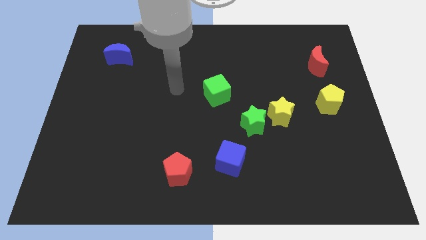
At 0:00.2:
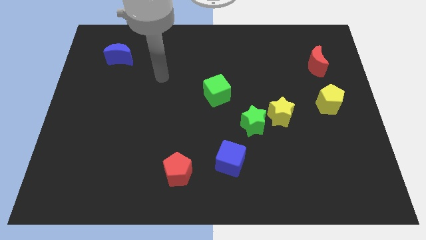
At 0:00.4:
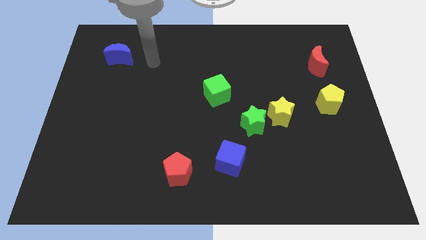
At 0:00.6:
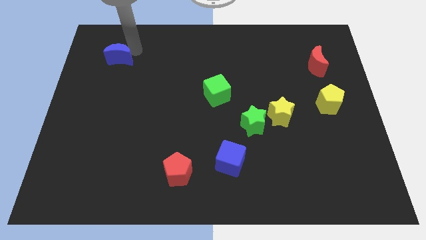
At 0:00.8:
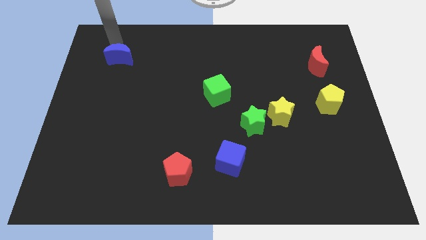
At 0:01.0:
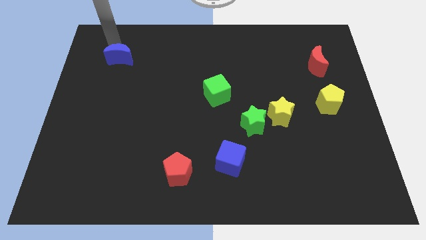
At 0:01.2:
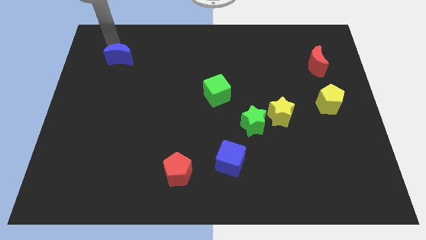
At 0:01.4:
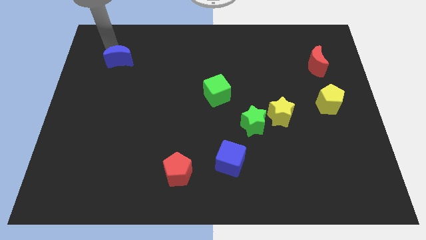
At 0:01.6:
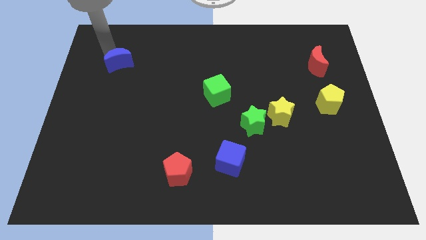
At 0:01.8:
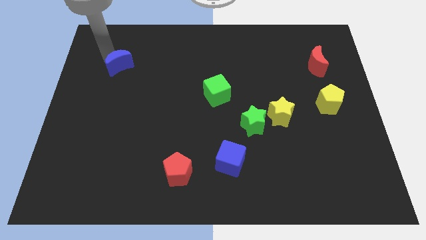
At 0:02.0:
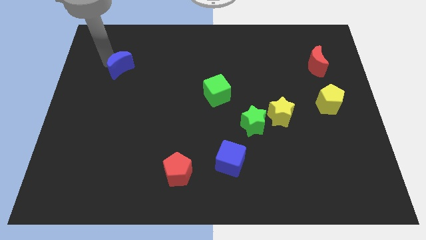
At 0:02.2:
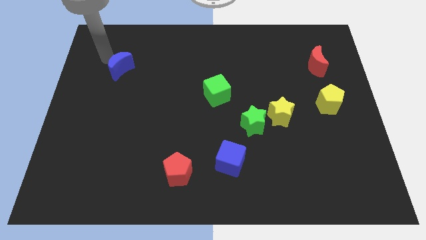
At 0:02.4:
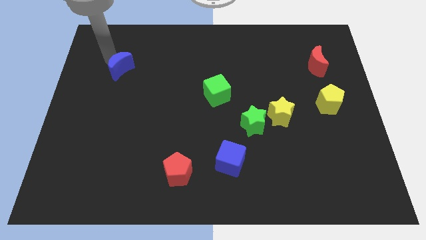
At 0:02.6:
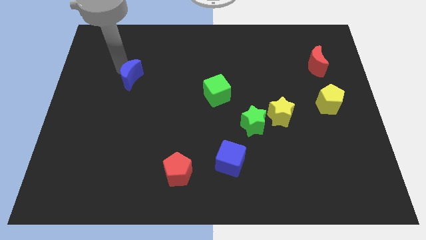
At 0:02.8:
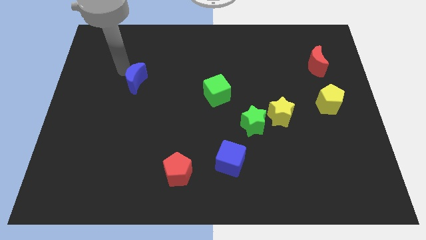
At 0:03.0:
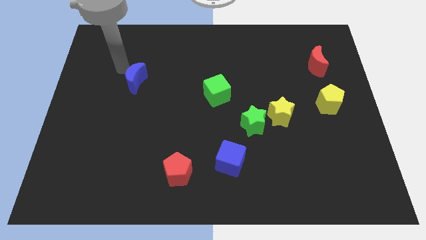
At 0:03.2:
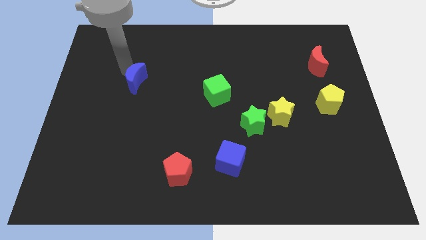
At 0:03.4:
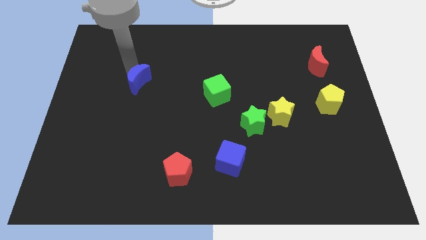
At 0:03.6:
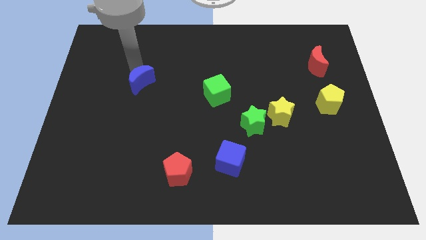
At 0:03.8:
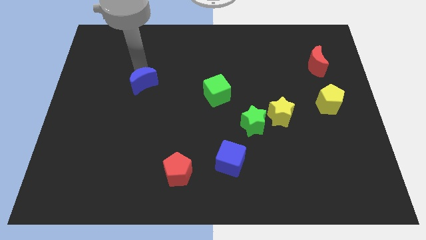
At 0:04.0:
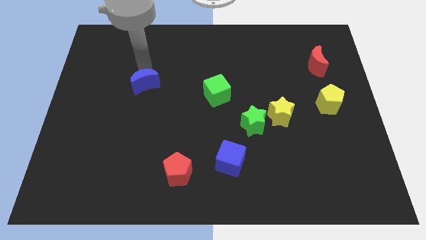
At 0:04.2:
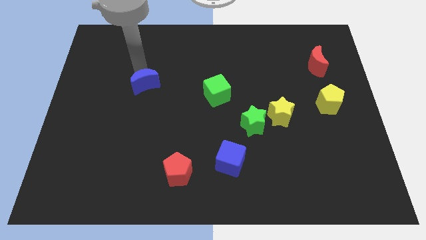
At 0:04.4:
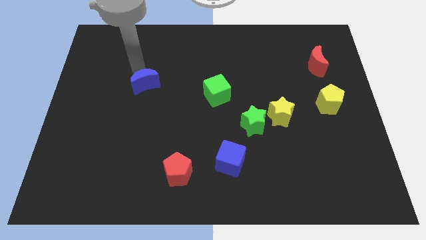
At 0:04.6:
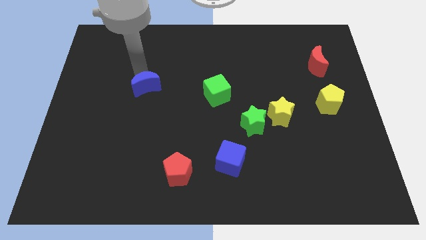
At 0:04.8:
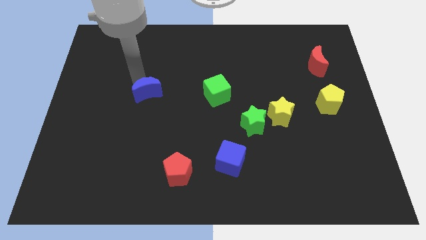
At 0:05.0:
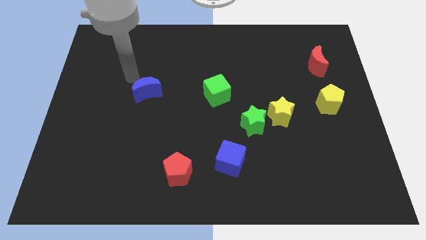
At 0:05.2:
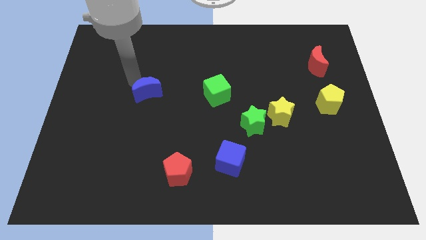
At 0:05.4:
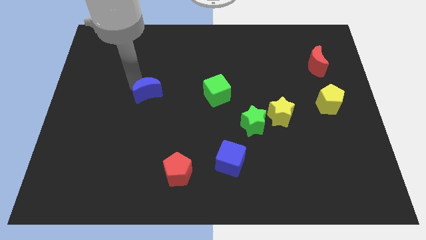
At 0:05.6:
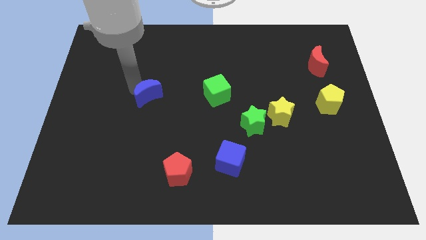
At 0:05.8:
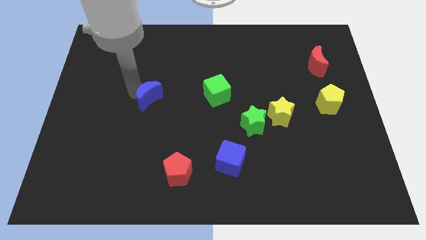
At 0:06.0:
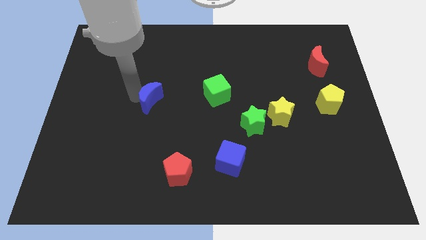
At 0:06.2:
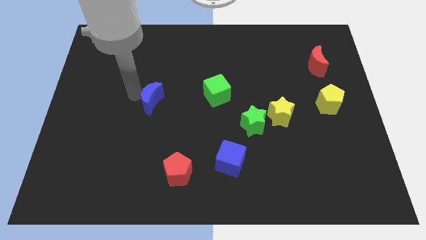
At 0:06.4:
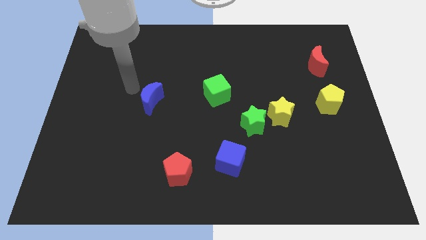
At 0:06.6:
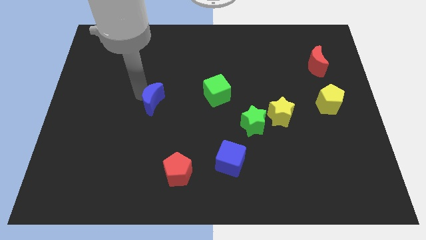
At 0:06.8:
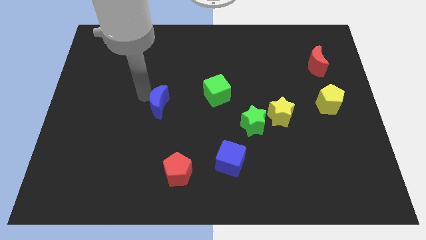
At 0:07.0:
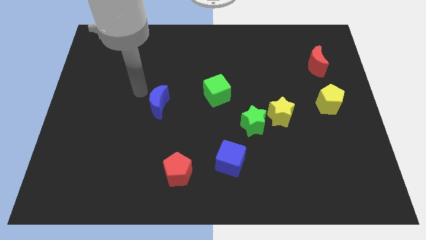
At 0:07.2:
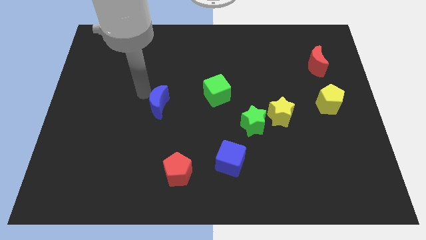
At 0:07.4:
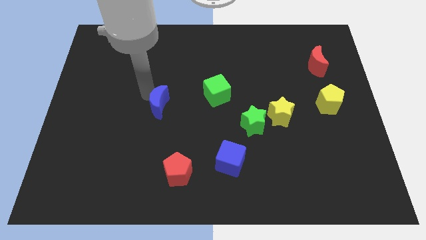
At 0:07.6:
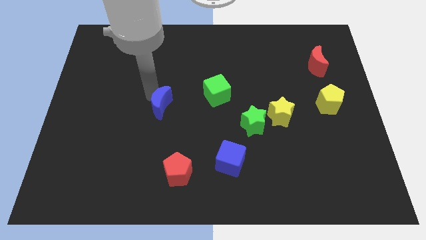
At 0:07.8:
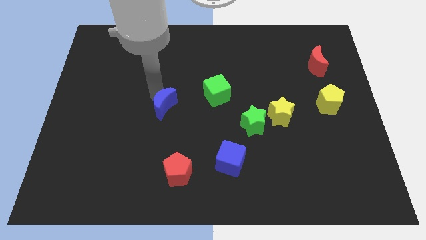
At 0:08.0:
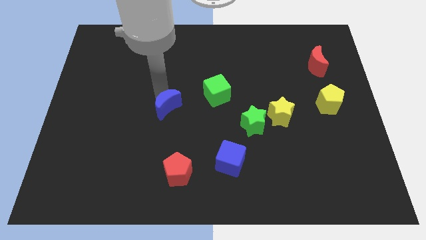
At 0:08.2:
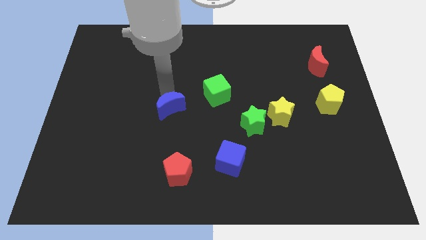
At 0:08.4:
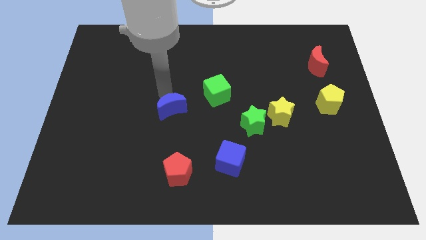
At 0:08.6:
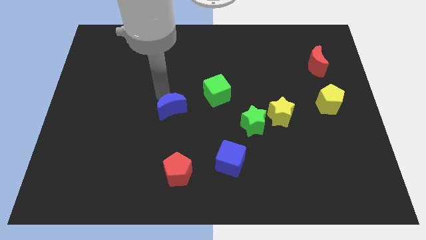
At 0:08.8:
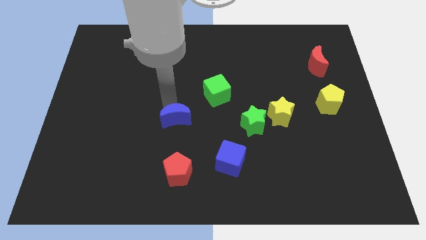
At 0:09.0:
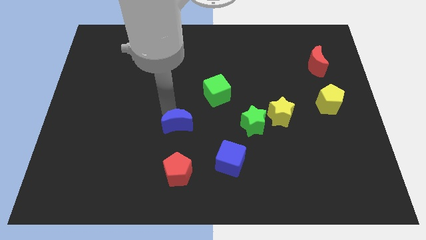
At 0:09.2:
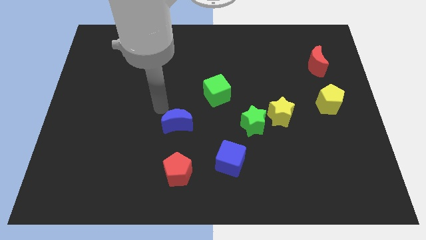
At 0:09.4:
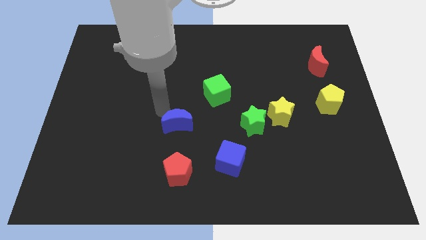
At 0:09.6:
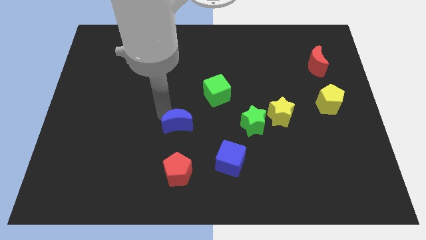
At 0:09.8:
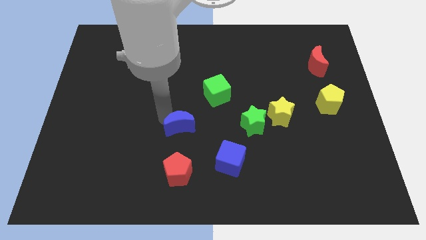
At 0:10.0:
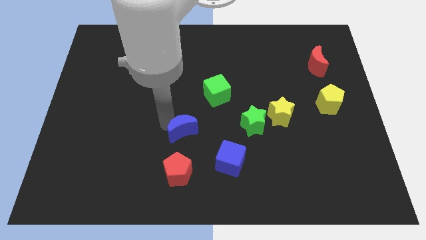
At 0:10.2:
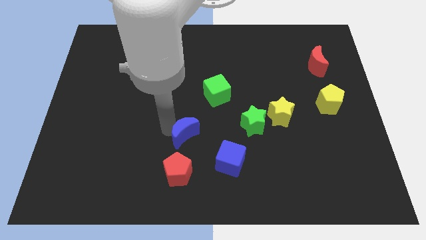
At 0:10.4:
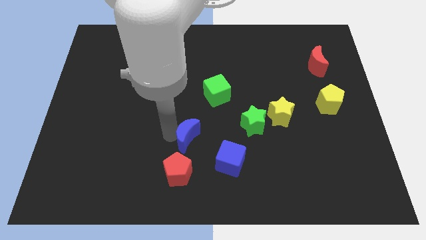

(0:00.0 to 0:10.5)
slide the blue moon to the top right side of the red pentagon
